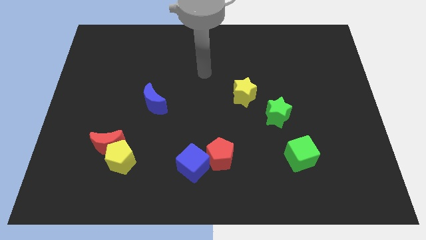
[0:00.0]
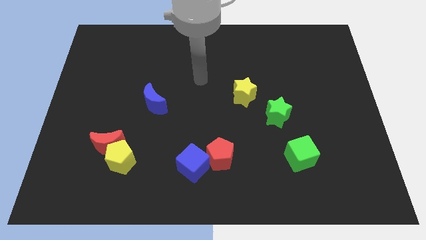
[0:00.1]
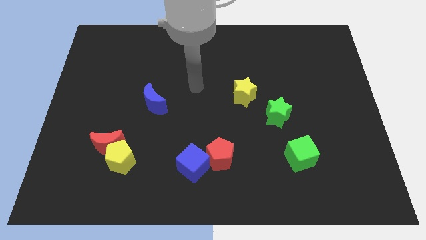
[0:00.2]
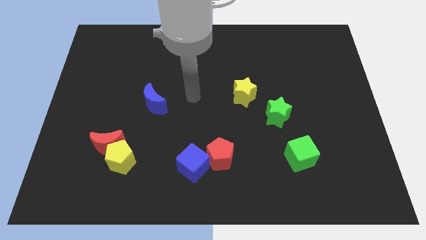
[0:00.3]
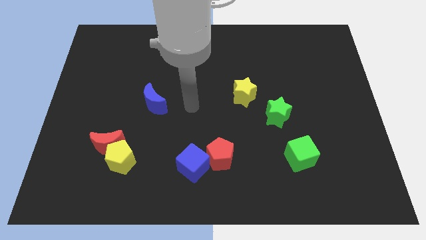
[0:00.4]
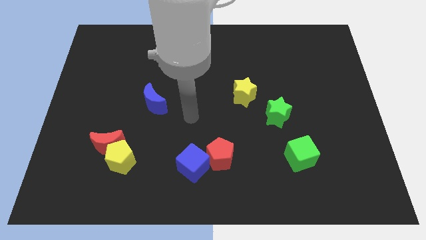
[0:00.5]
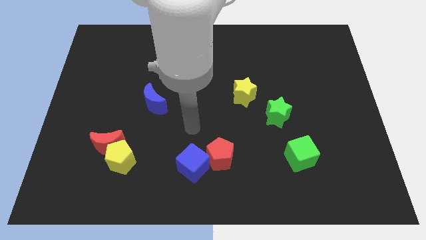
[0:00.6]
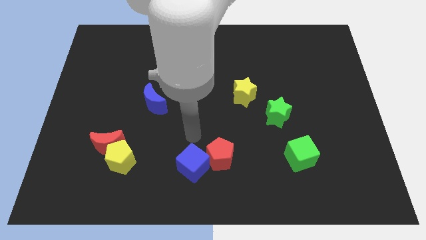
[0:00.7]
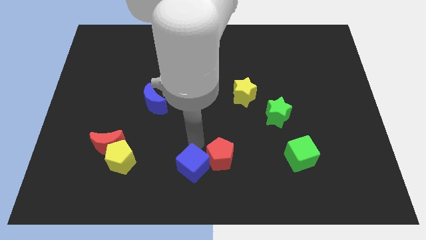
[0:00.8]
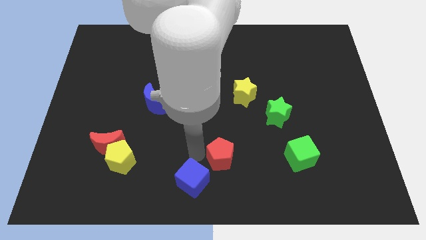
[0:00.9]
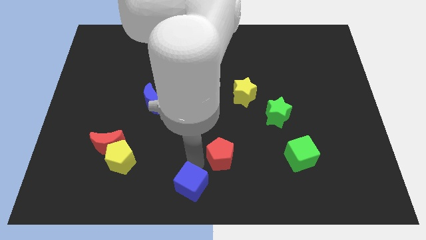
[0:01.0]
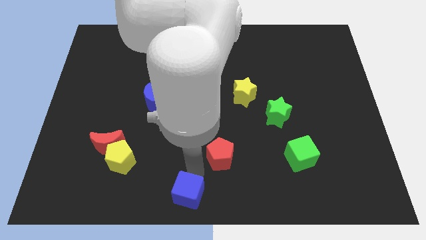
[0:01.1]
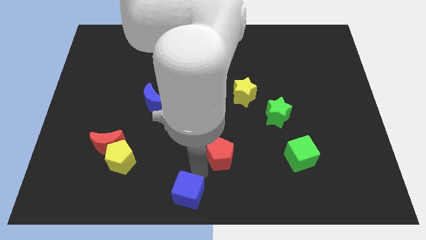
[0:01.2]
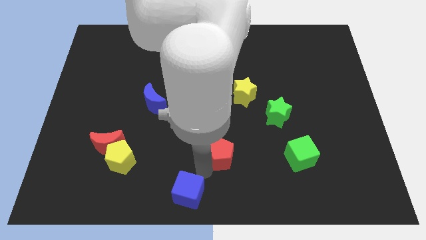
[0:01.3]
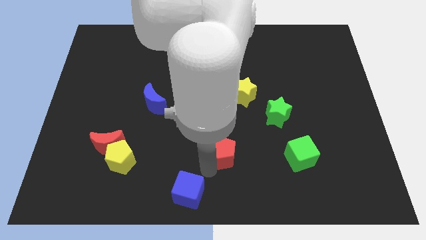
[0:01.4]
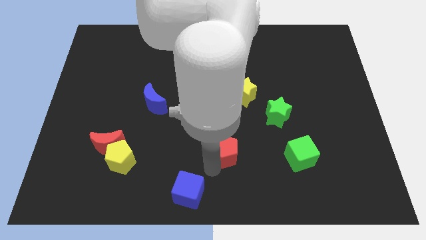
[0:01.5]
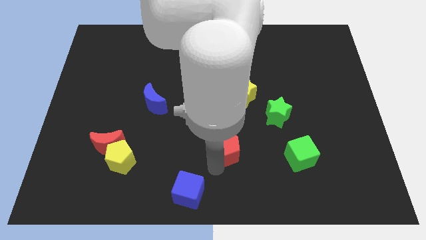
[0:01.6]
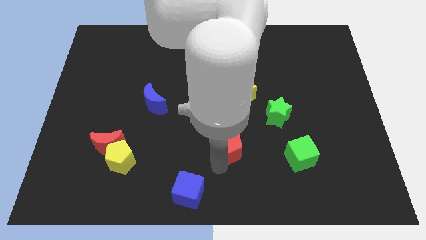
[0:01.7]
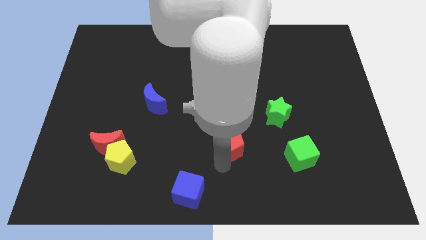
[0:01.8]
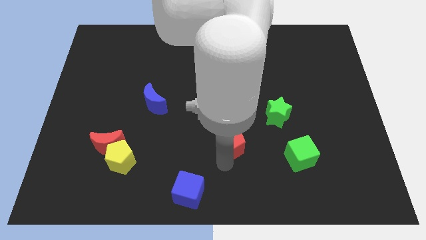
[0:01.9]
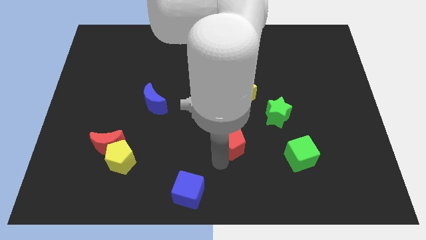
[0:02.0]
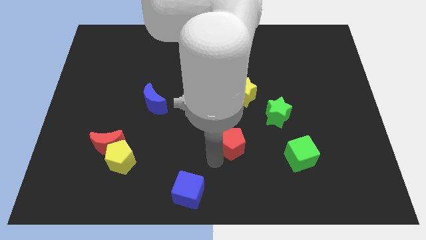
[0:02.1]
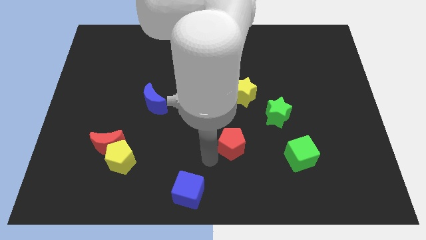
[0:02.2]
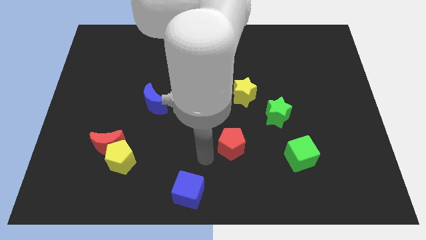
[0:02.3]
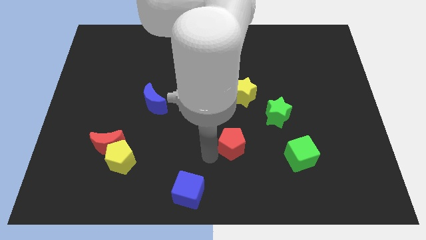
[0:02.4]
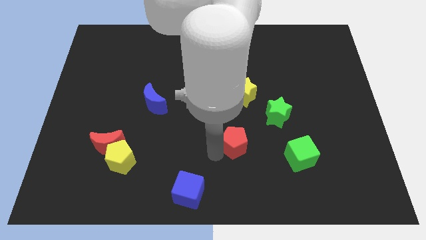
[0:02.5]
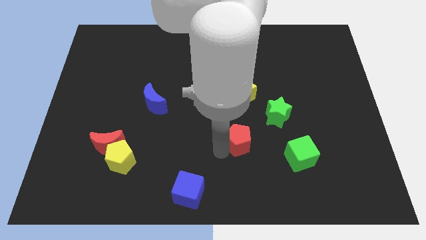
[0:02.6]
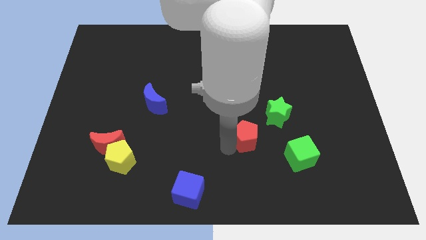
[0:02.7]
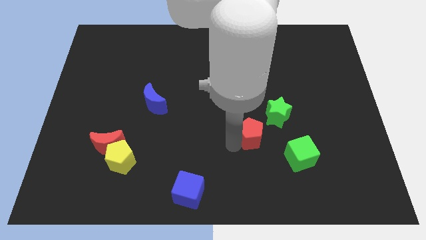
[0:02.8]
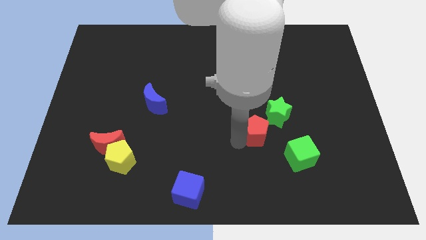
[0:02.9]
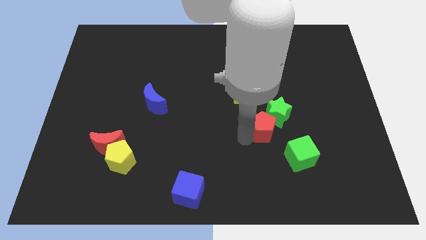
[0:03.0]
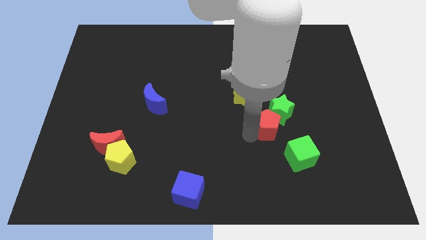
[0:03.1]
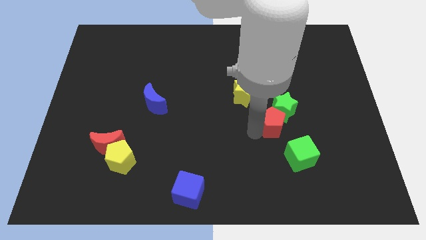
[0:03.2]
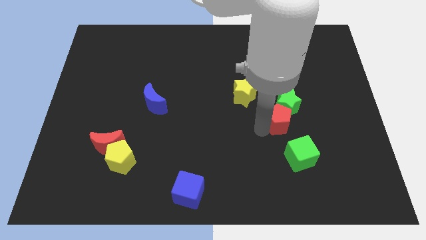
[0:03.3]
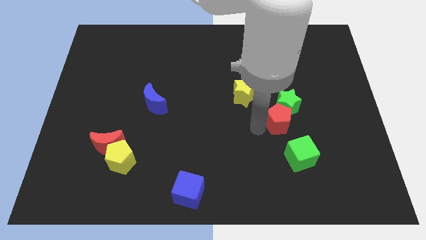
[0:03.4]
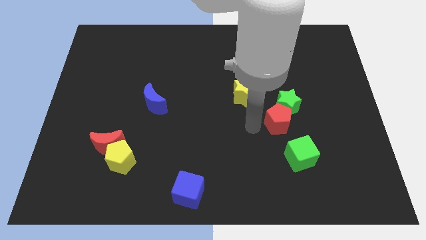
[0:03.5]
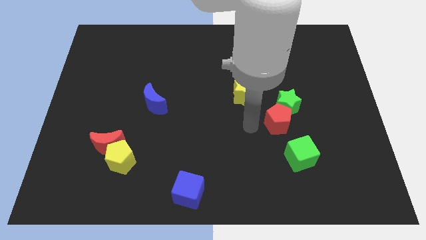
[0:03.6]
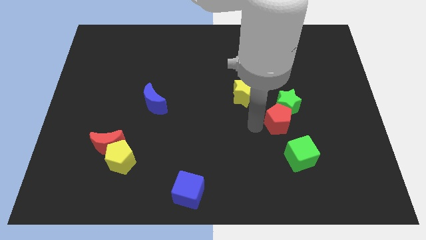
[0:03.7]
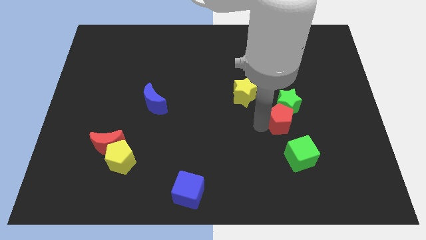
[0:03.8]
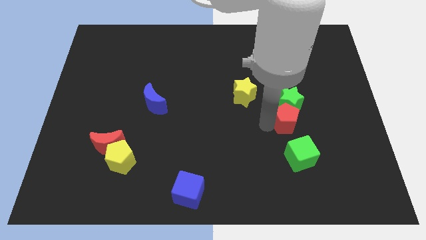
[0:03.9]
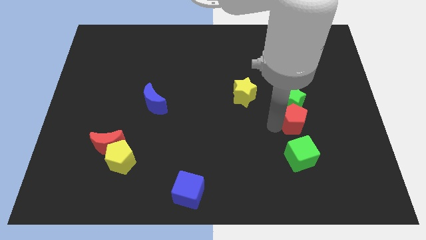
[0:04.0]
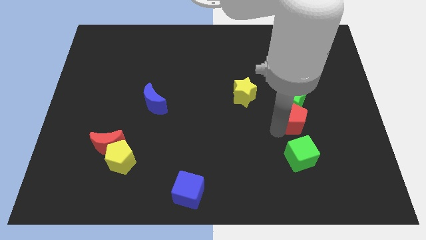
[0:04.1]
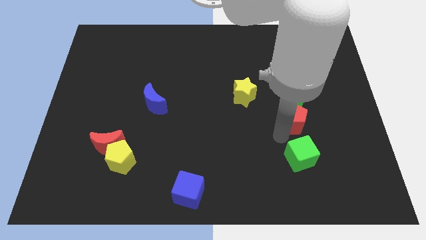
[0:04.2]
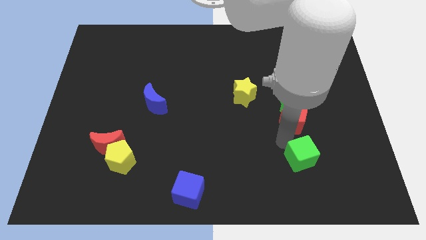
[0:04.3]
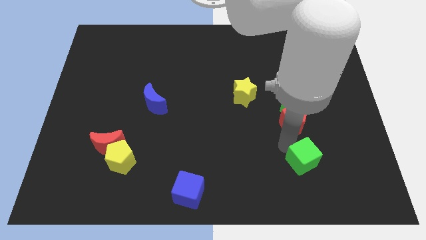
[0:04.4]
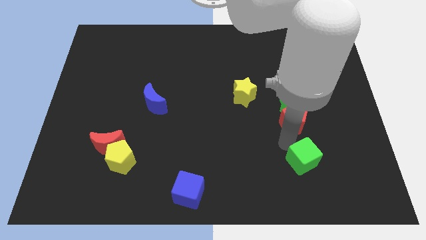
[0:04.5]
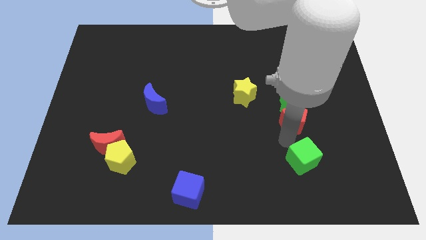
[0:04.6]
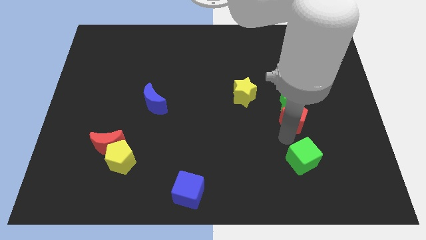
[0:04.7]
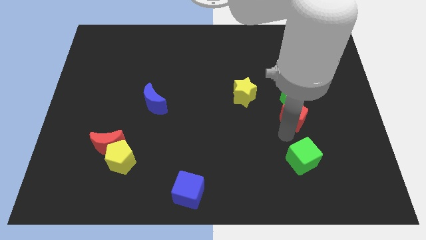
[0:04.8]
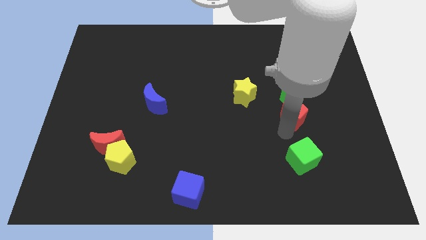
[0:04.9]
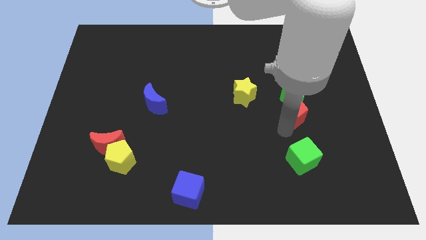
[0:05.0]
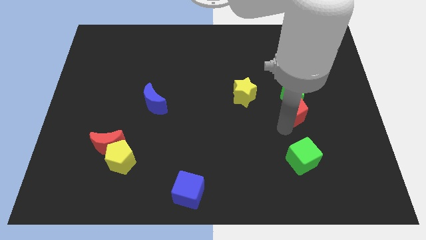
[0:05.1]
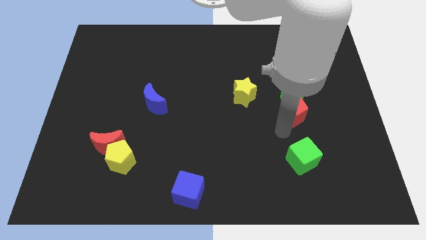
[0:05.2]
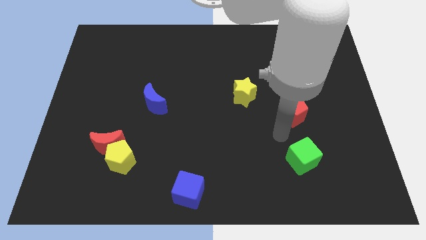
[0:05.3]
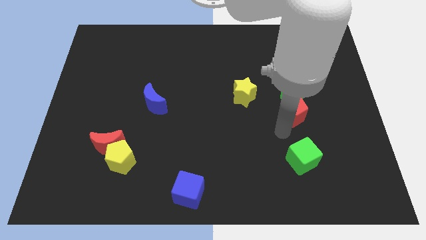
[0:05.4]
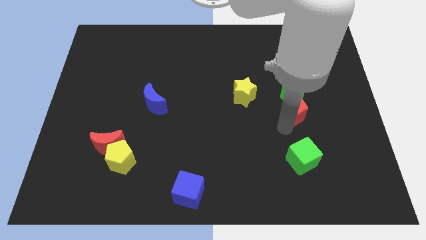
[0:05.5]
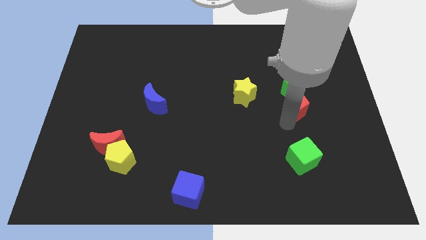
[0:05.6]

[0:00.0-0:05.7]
move the red pentagon upwards and then to the right

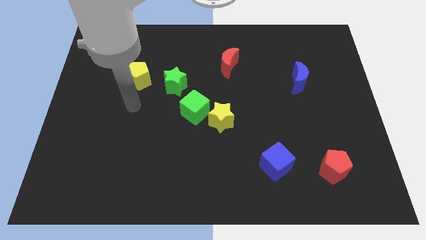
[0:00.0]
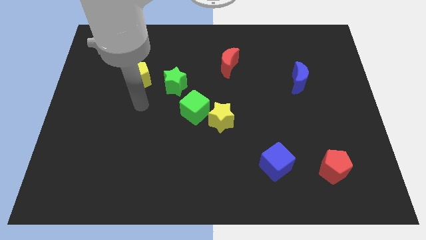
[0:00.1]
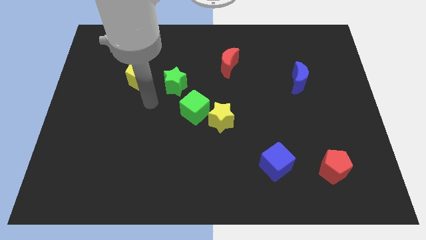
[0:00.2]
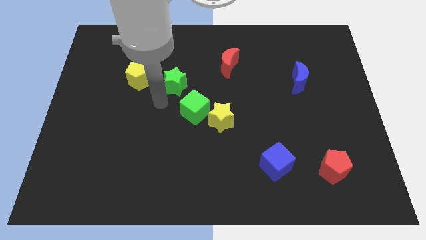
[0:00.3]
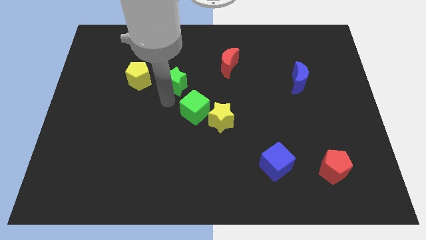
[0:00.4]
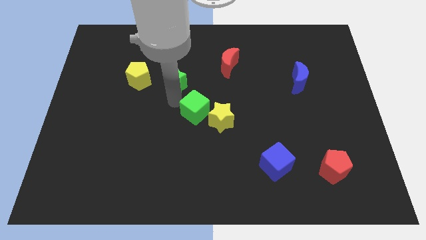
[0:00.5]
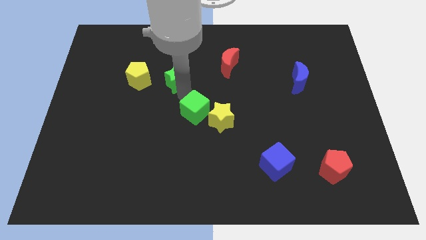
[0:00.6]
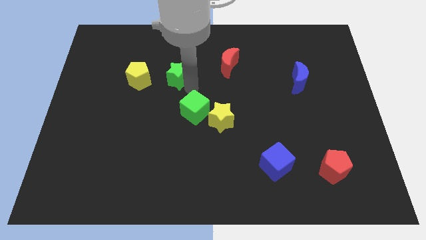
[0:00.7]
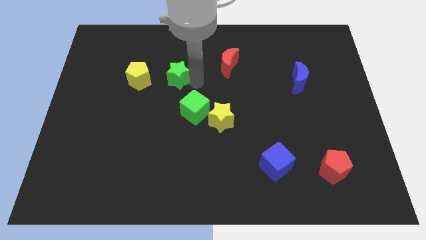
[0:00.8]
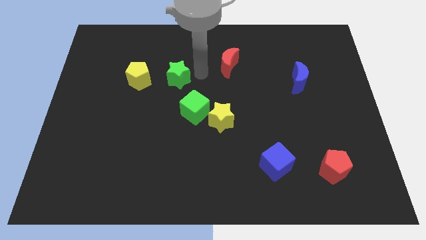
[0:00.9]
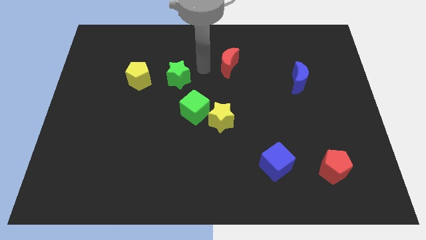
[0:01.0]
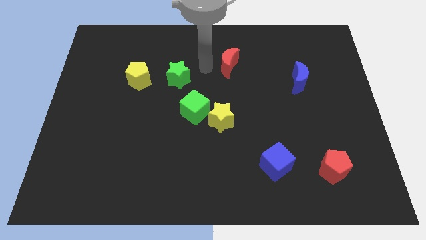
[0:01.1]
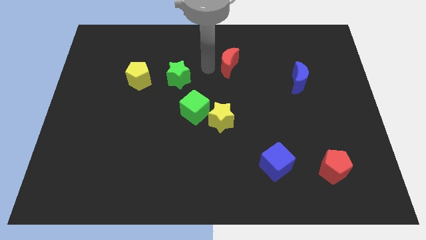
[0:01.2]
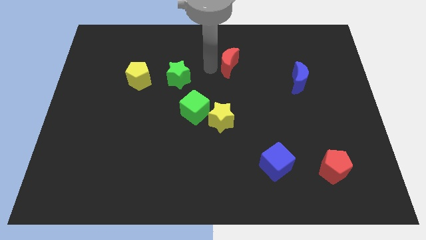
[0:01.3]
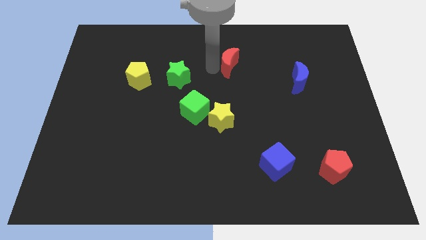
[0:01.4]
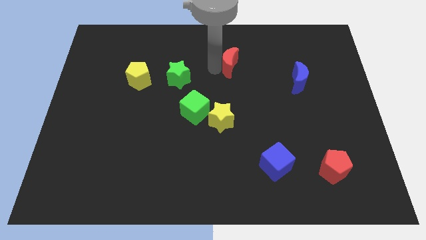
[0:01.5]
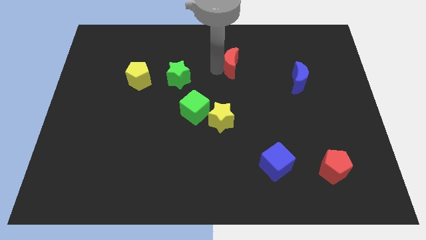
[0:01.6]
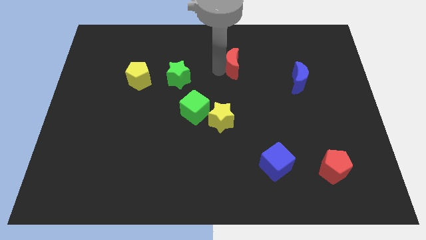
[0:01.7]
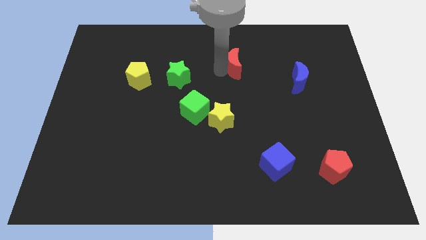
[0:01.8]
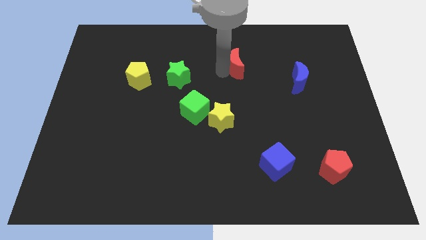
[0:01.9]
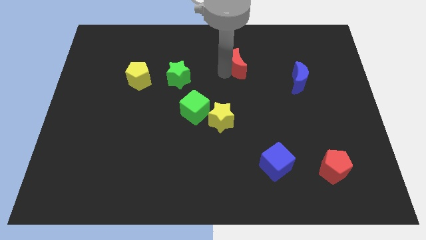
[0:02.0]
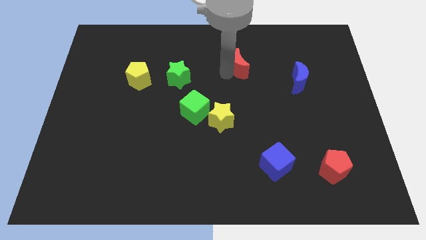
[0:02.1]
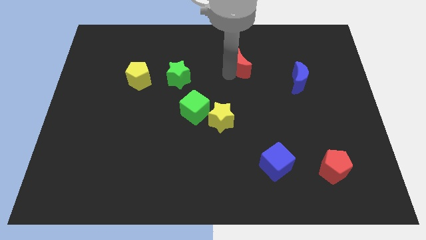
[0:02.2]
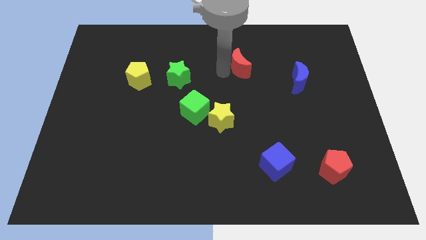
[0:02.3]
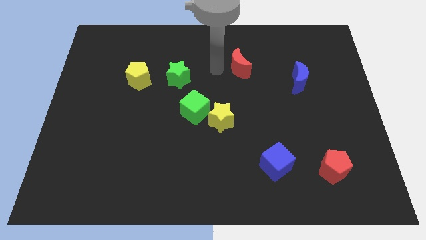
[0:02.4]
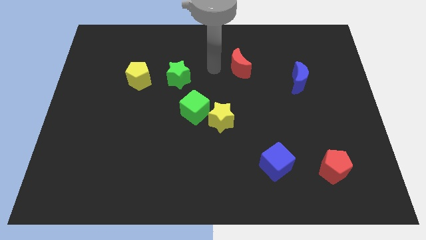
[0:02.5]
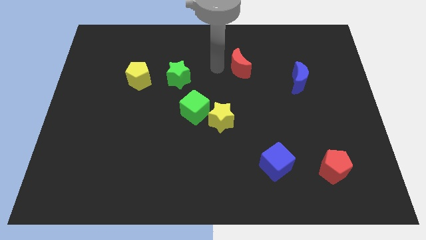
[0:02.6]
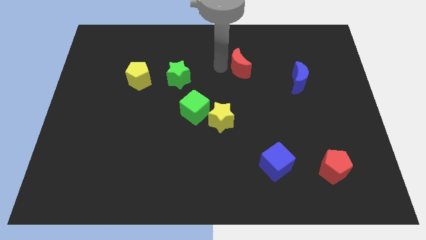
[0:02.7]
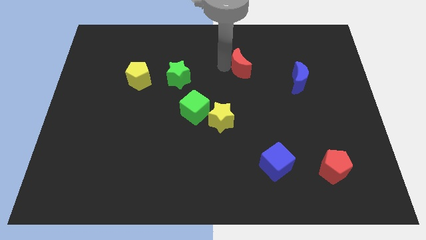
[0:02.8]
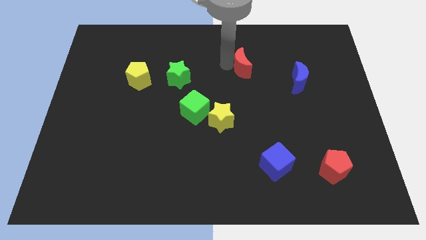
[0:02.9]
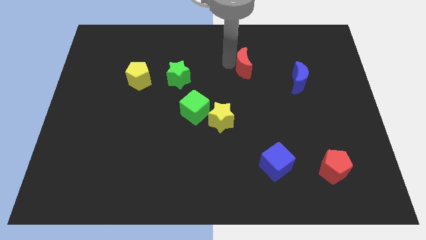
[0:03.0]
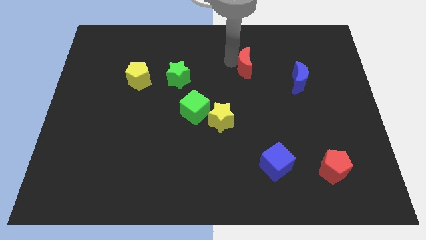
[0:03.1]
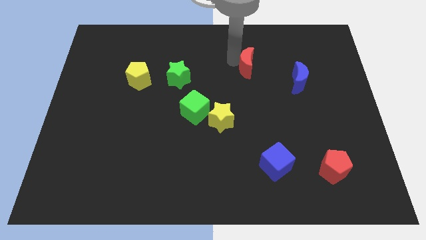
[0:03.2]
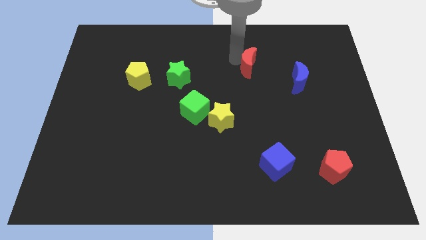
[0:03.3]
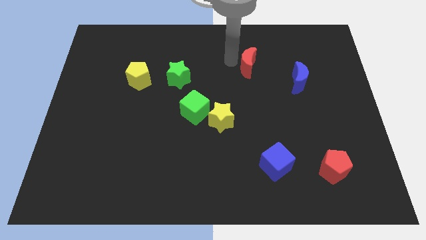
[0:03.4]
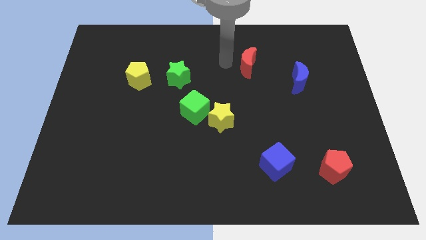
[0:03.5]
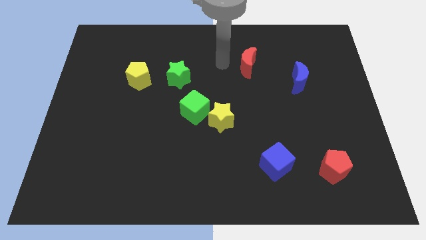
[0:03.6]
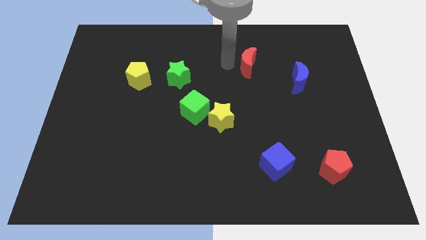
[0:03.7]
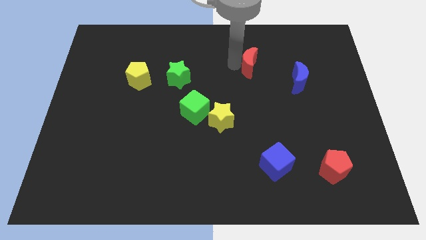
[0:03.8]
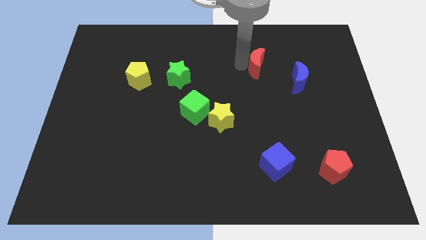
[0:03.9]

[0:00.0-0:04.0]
slightly move the red moon right
